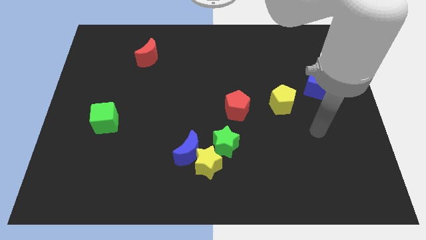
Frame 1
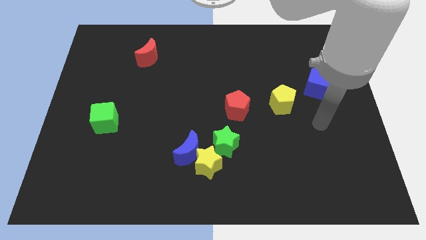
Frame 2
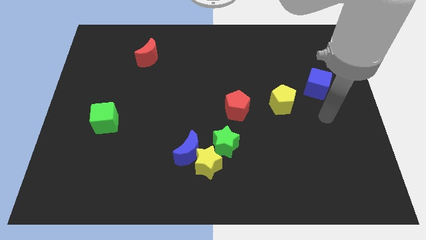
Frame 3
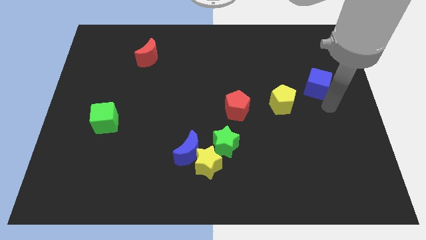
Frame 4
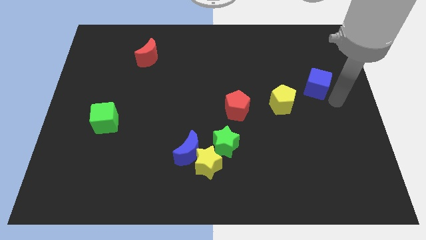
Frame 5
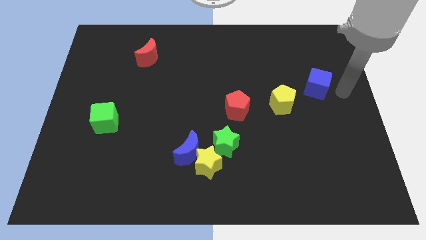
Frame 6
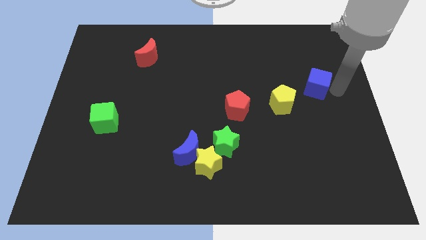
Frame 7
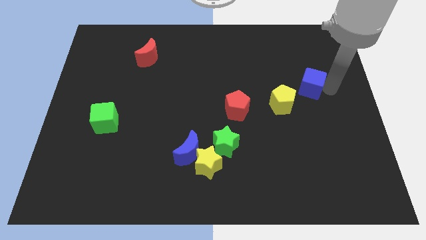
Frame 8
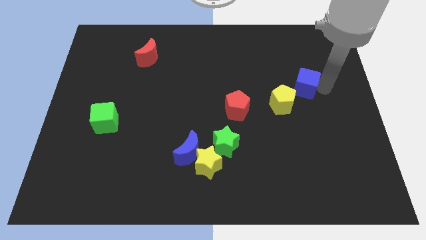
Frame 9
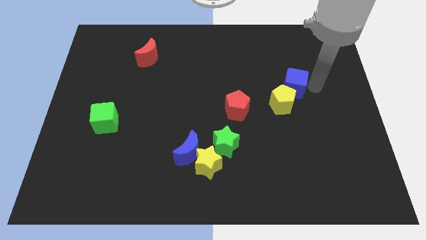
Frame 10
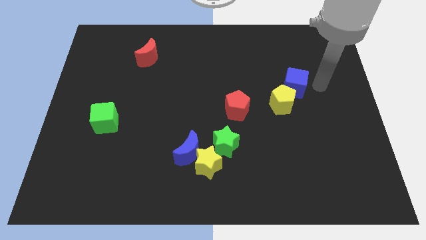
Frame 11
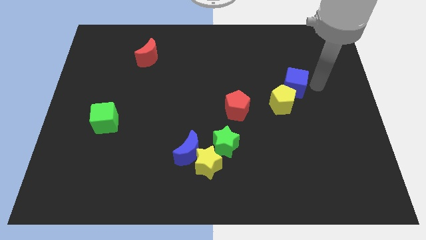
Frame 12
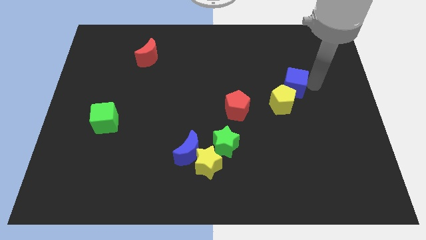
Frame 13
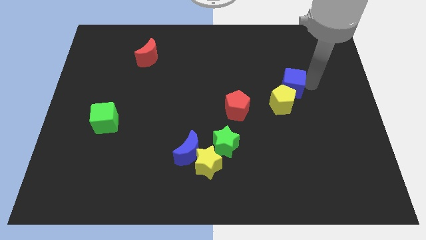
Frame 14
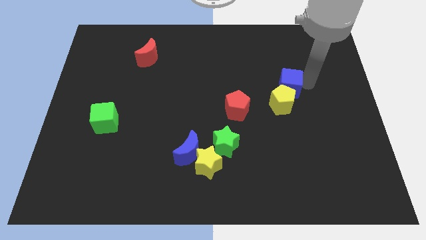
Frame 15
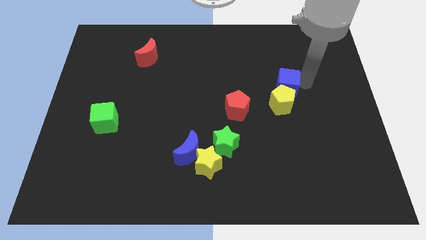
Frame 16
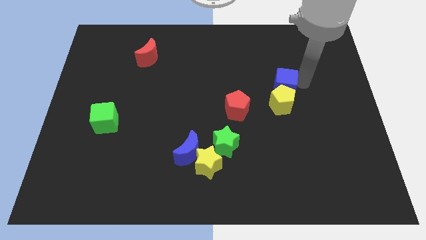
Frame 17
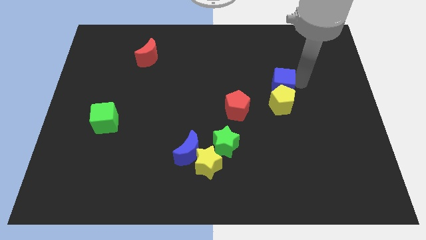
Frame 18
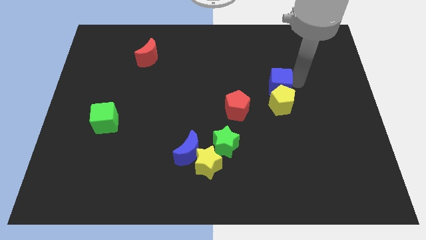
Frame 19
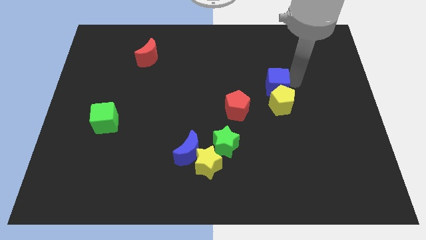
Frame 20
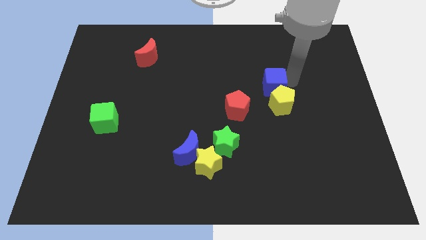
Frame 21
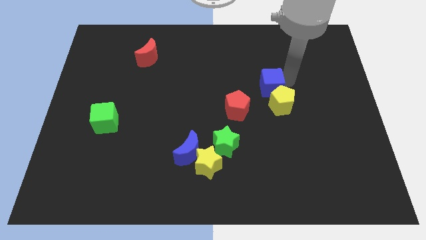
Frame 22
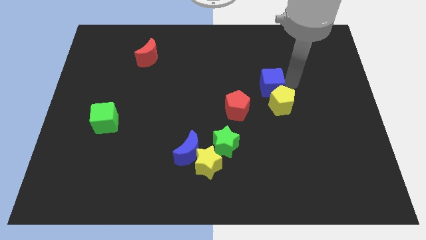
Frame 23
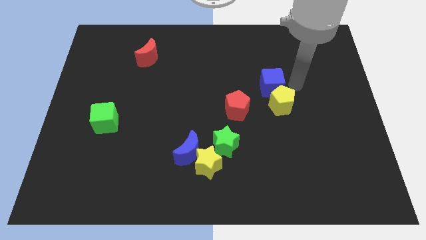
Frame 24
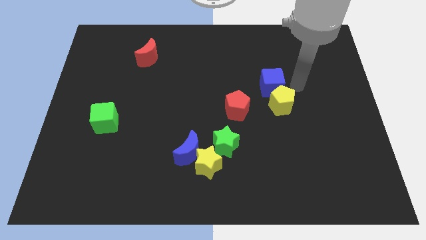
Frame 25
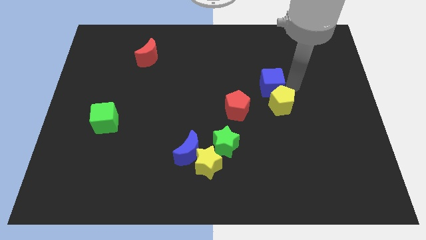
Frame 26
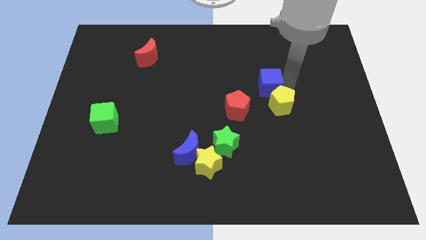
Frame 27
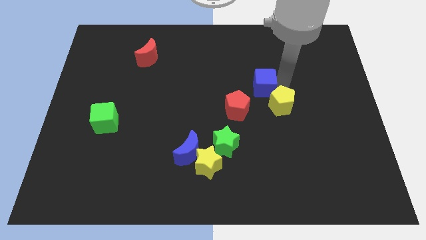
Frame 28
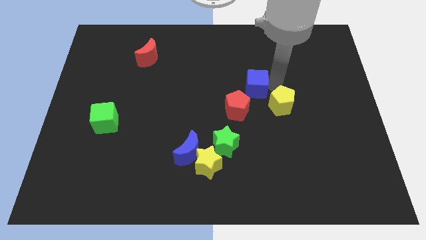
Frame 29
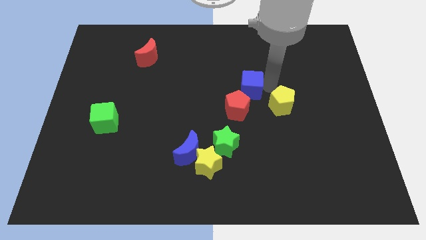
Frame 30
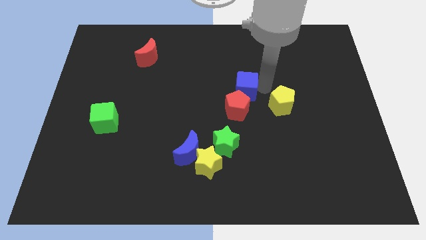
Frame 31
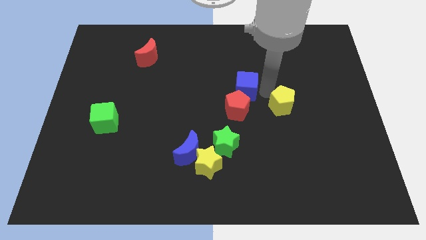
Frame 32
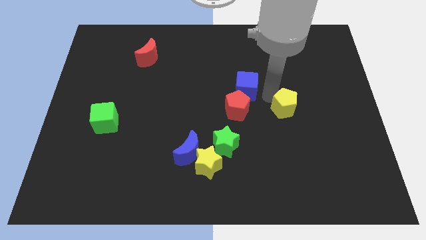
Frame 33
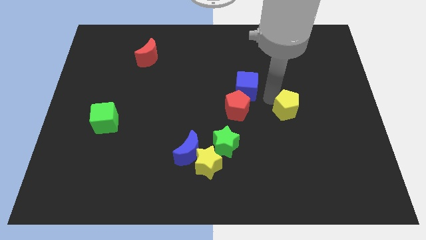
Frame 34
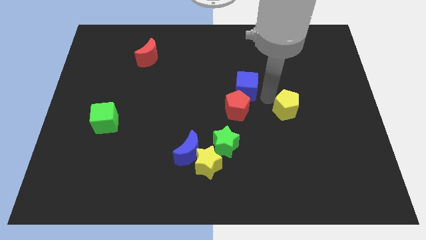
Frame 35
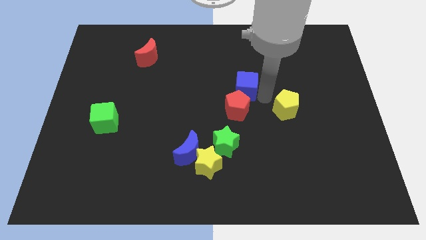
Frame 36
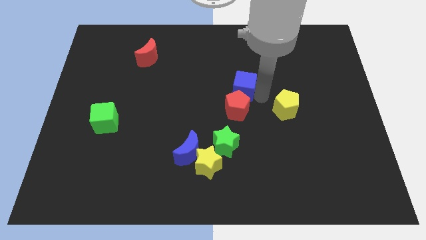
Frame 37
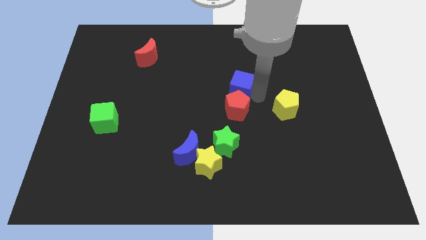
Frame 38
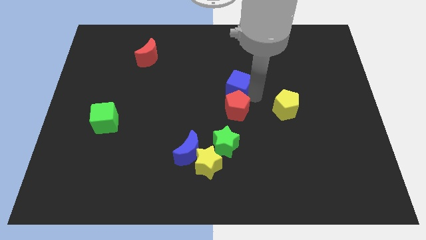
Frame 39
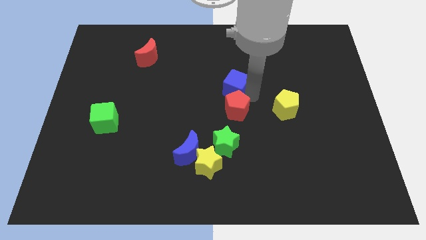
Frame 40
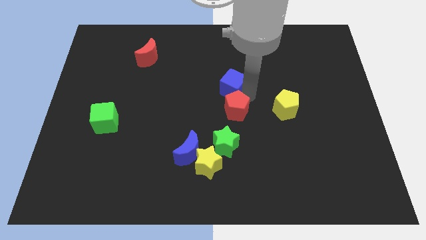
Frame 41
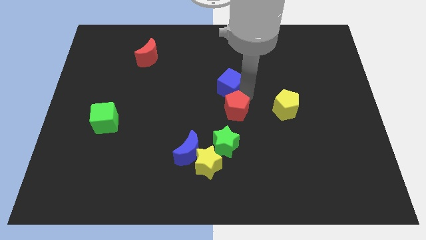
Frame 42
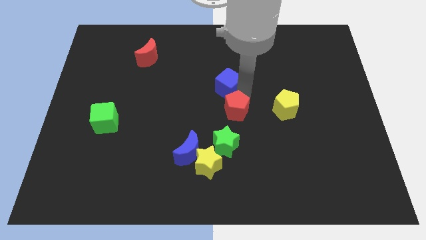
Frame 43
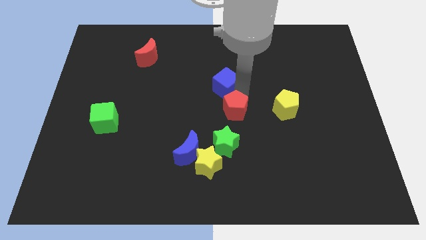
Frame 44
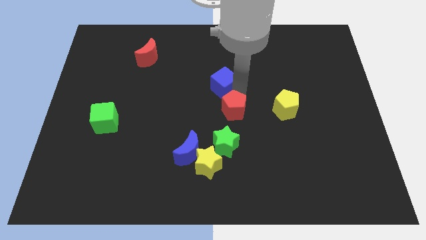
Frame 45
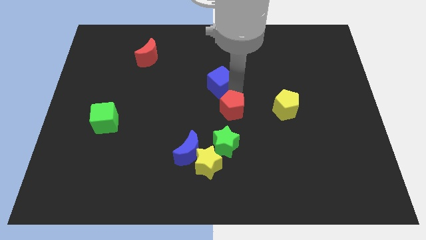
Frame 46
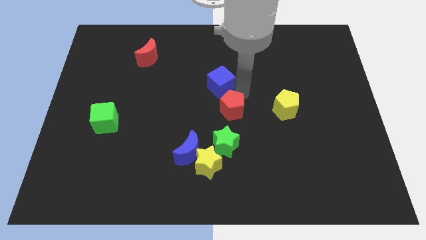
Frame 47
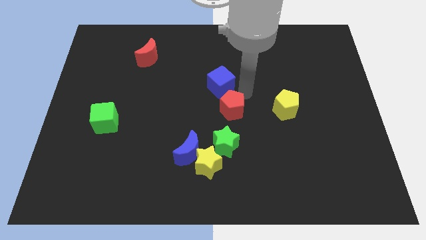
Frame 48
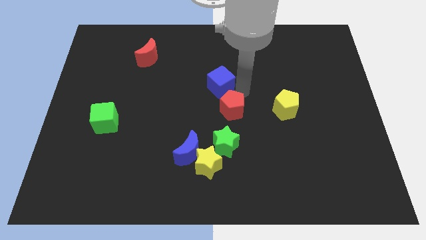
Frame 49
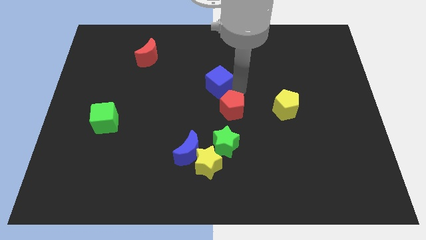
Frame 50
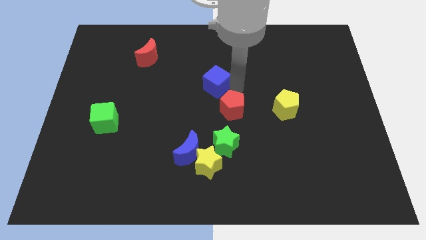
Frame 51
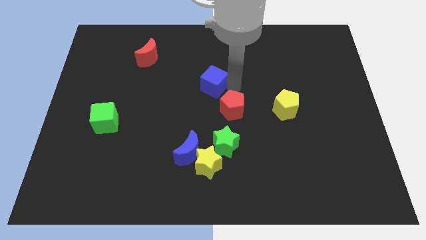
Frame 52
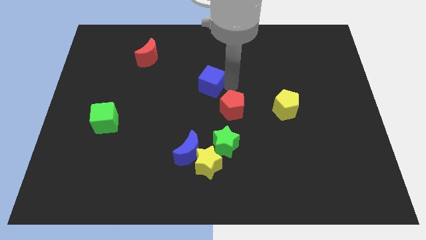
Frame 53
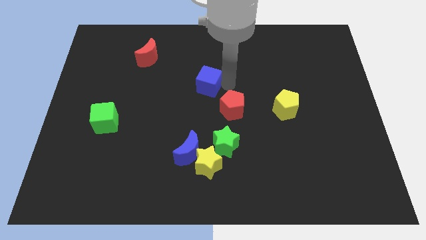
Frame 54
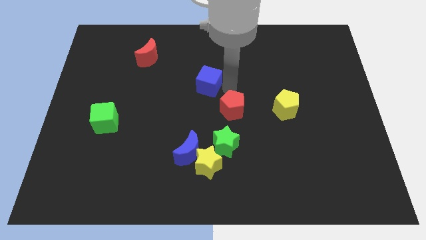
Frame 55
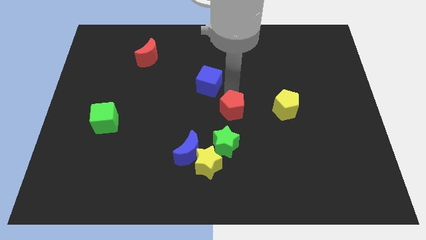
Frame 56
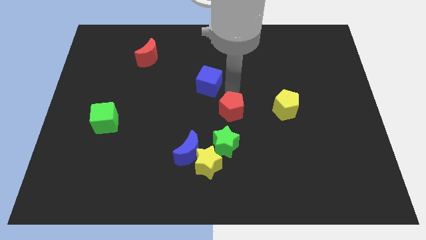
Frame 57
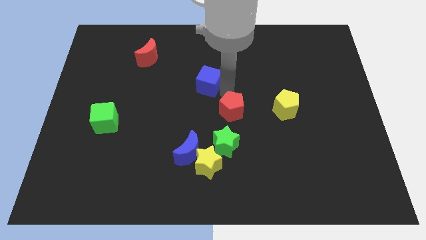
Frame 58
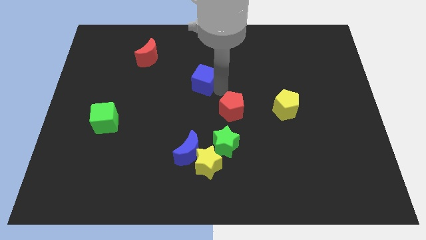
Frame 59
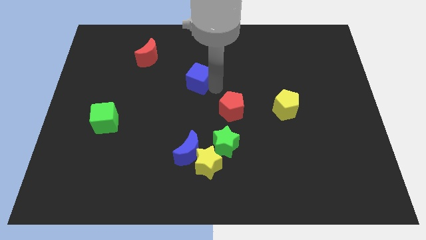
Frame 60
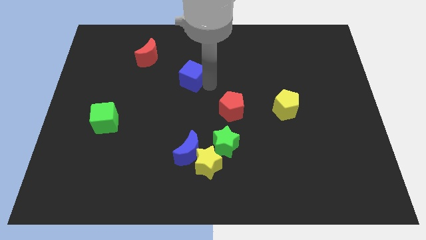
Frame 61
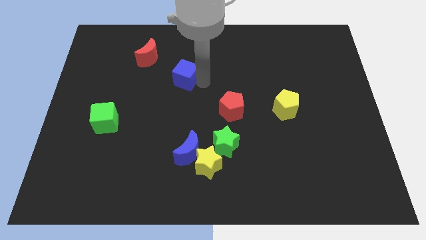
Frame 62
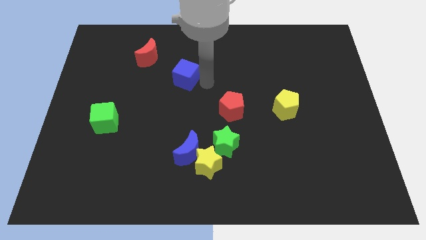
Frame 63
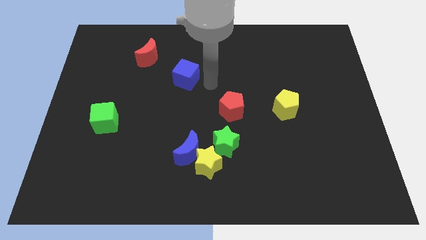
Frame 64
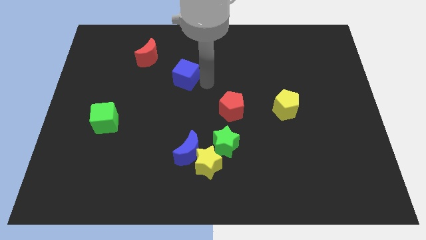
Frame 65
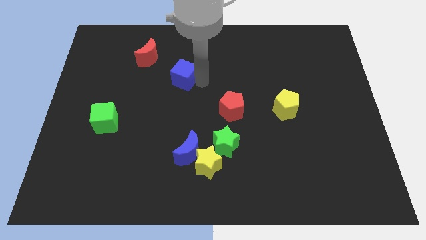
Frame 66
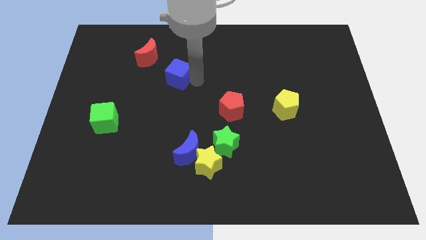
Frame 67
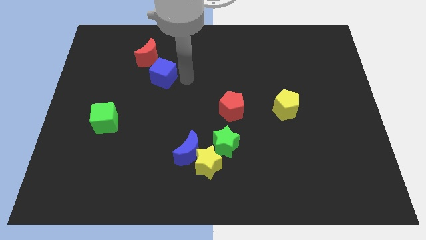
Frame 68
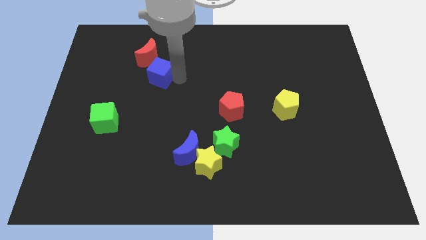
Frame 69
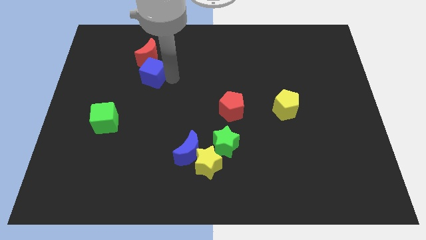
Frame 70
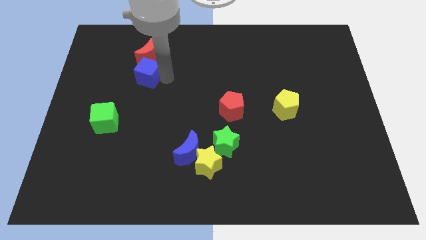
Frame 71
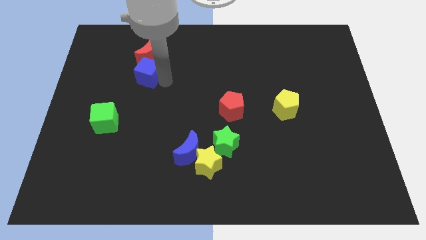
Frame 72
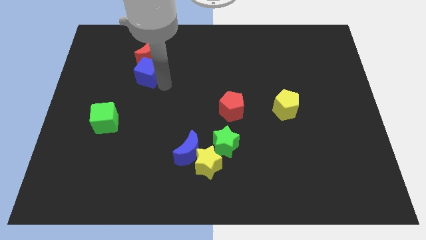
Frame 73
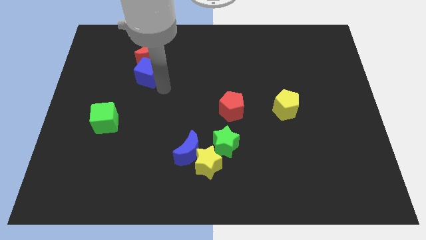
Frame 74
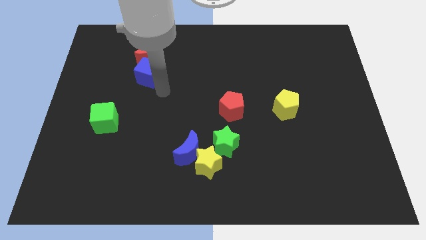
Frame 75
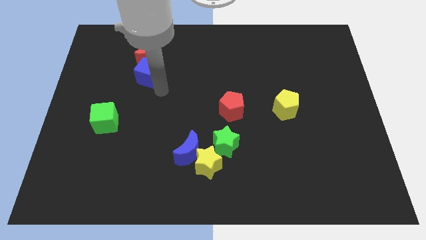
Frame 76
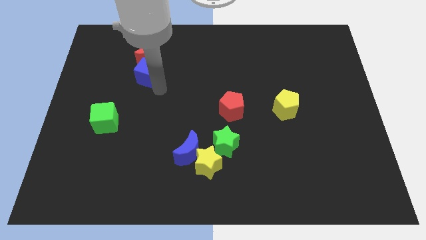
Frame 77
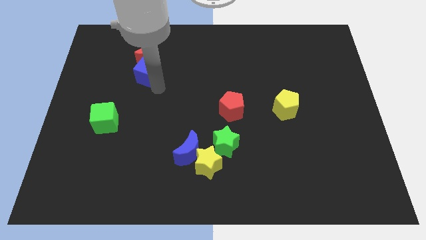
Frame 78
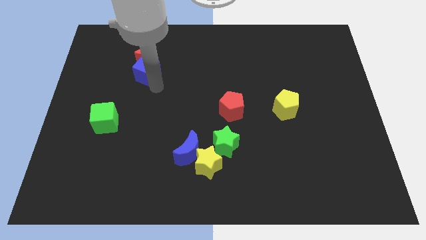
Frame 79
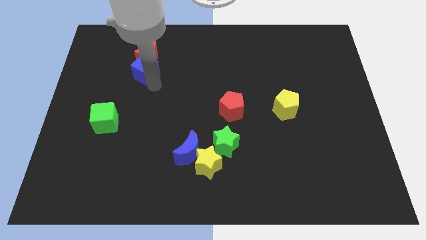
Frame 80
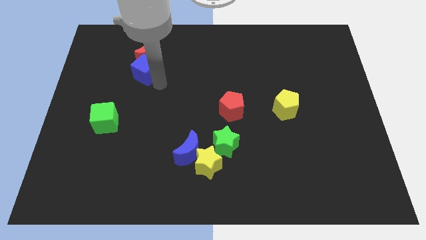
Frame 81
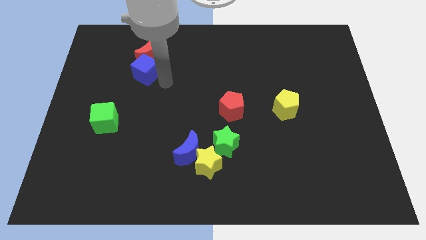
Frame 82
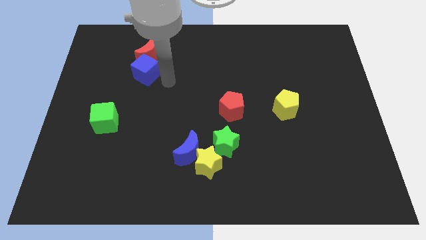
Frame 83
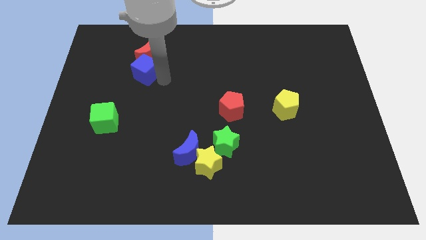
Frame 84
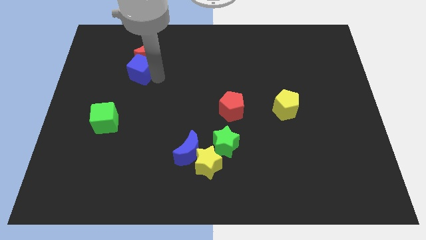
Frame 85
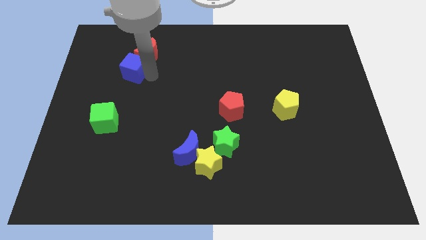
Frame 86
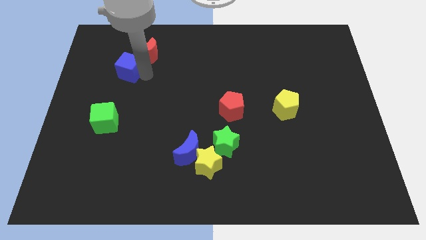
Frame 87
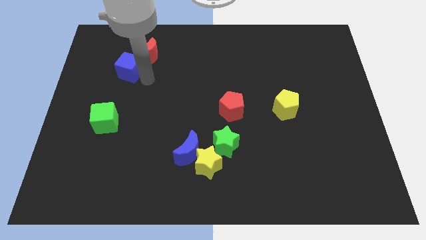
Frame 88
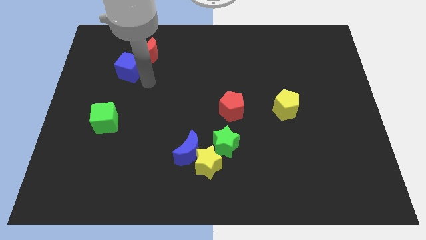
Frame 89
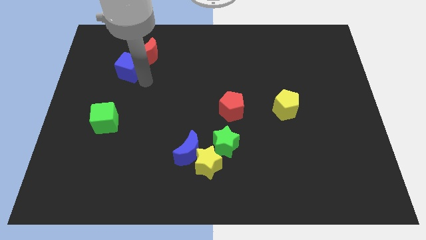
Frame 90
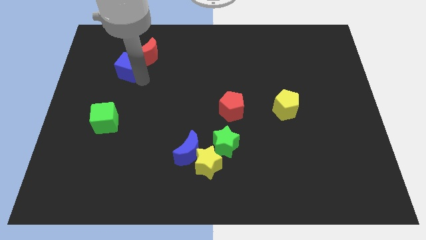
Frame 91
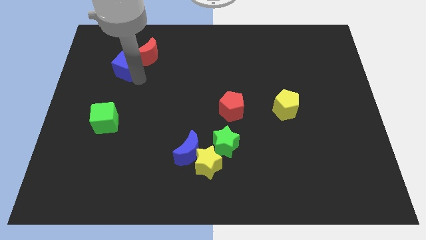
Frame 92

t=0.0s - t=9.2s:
push the blue cube just left of the red moon
